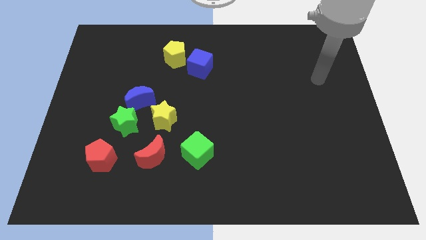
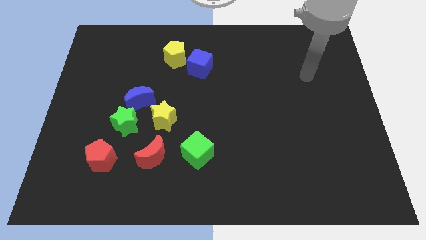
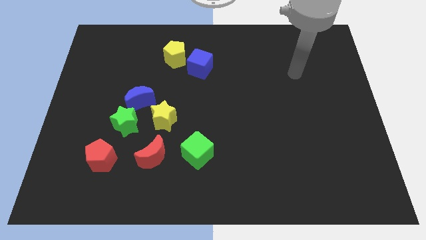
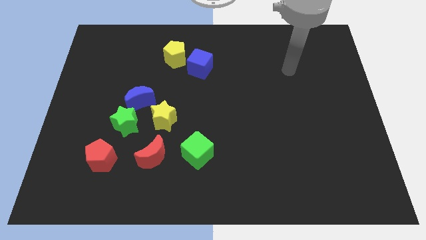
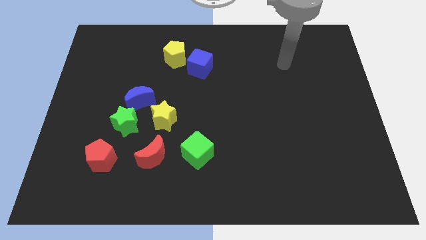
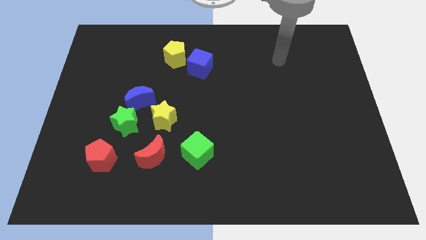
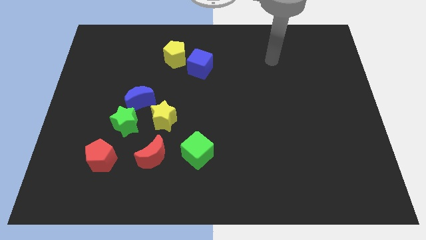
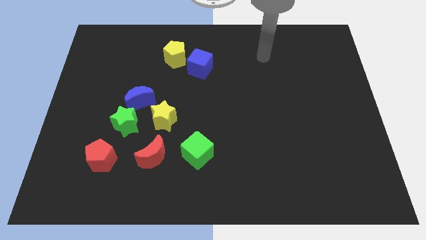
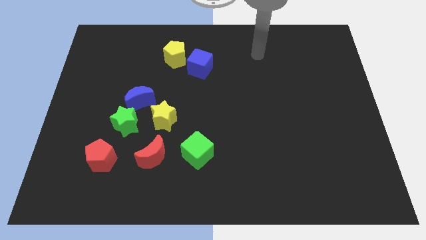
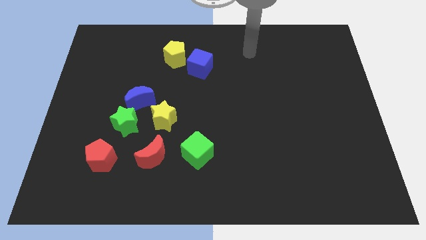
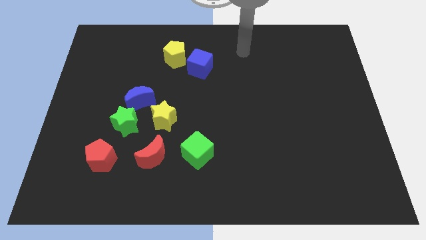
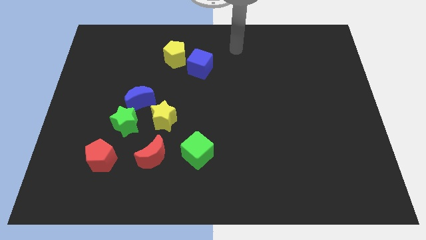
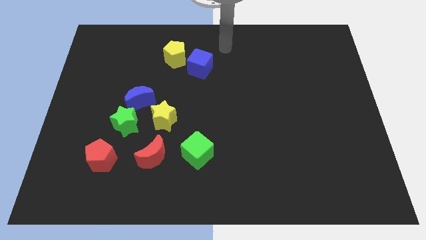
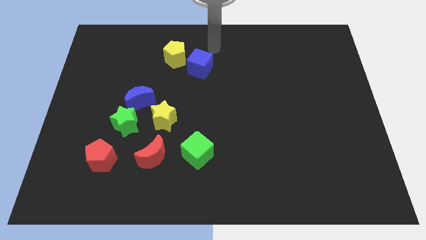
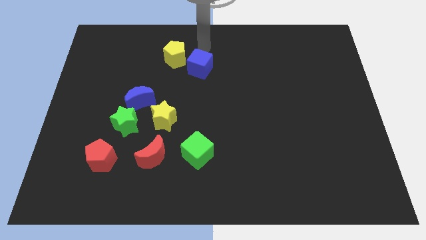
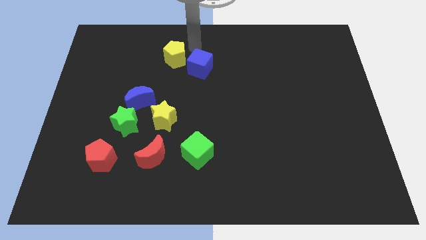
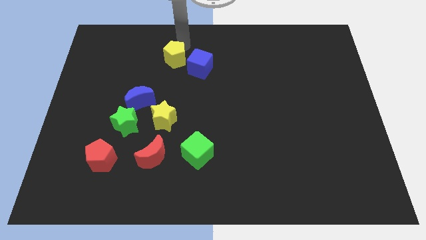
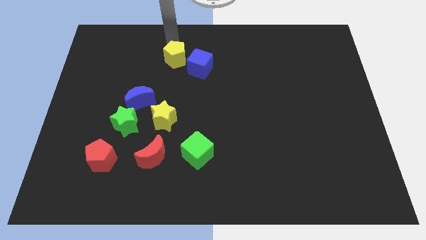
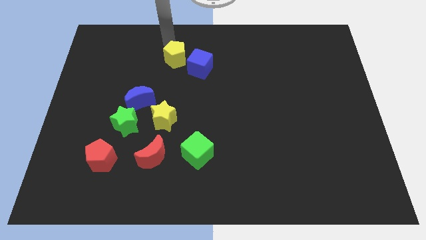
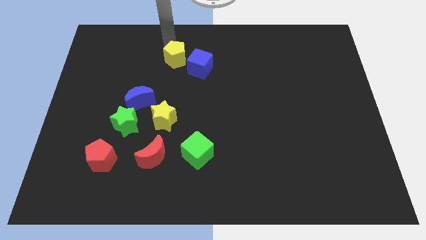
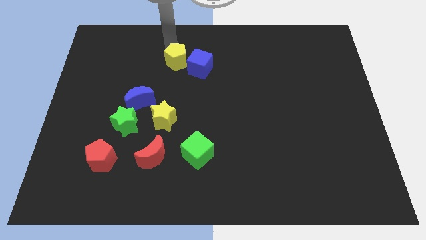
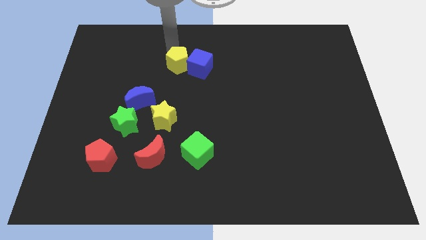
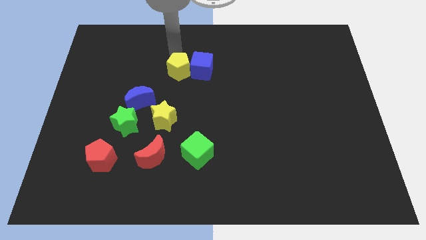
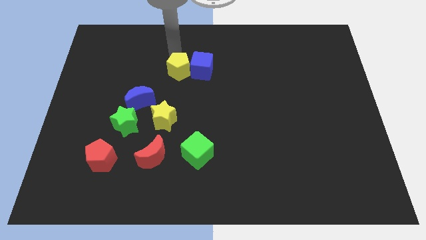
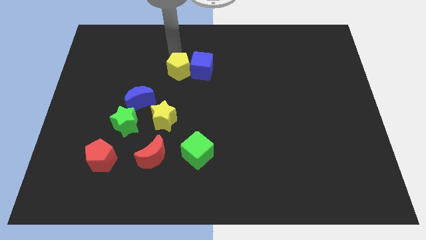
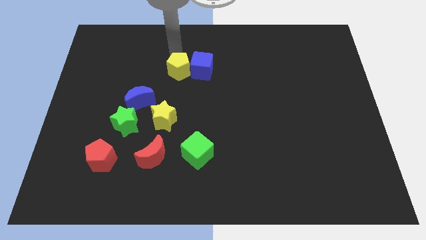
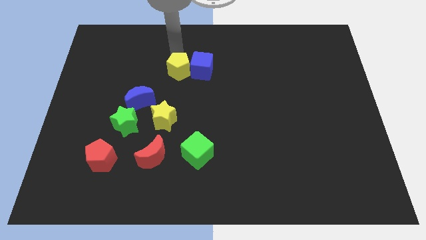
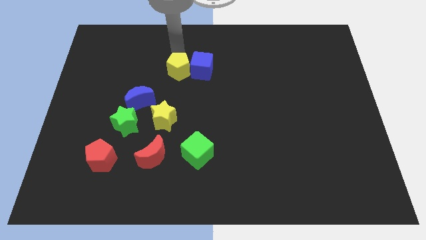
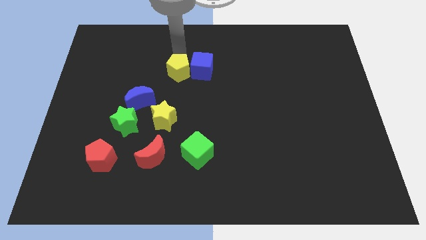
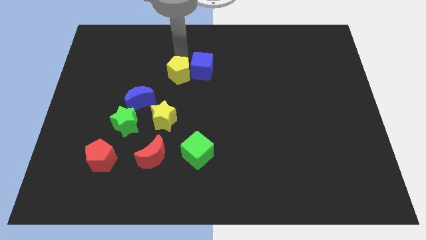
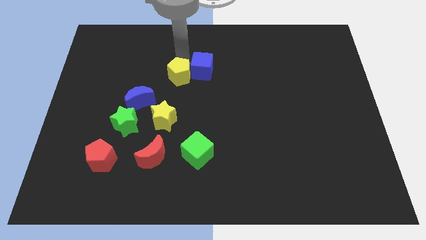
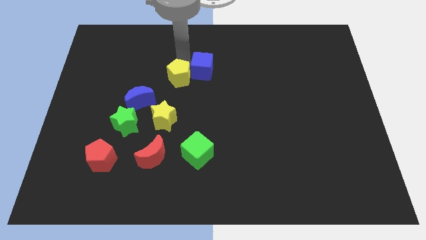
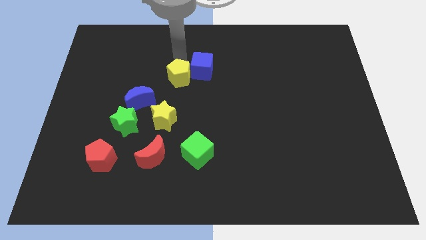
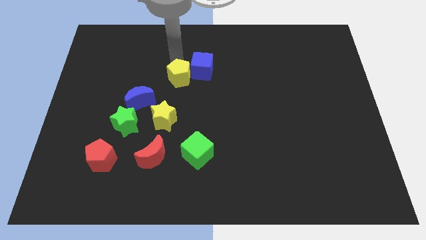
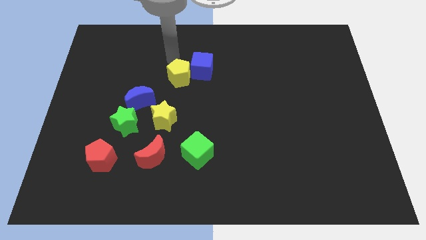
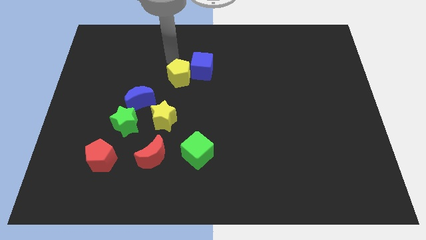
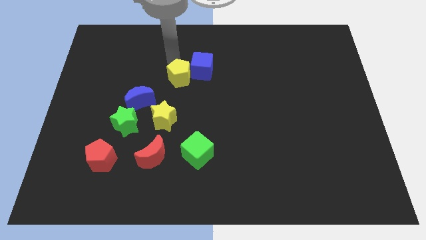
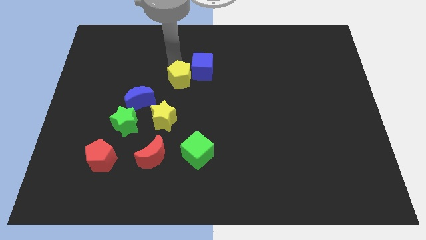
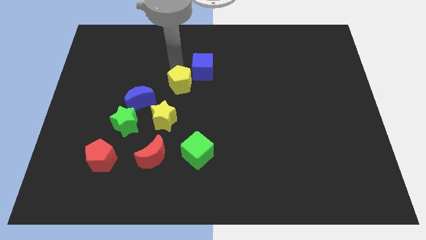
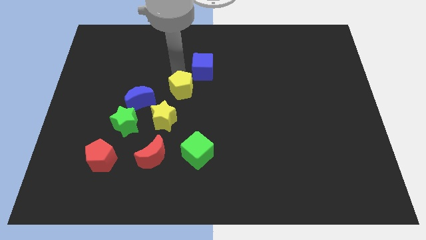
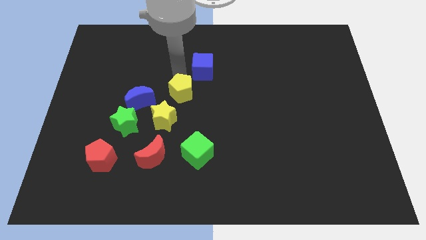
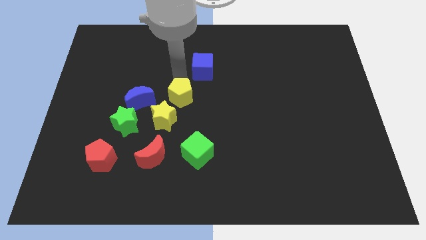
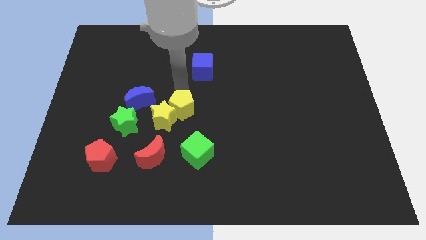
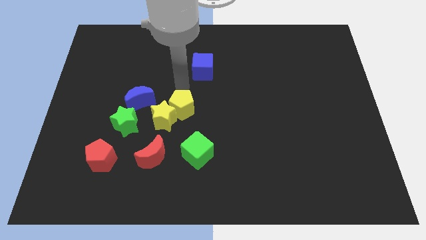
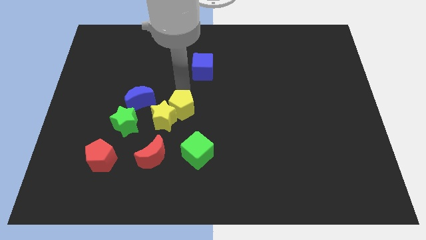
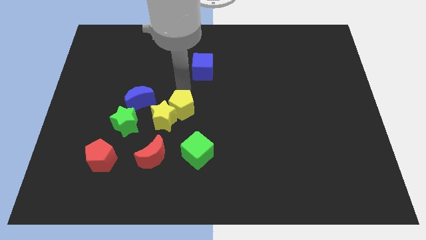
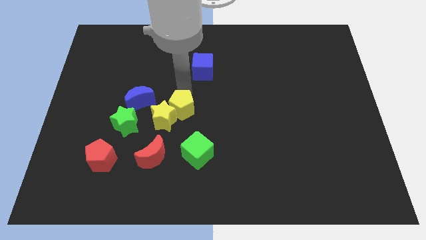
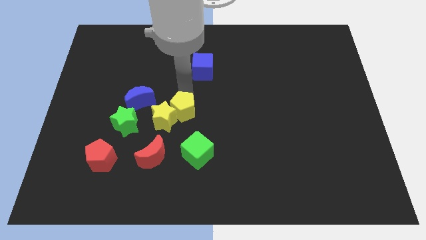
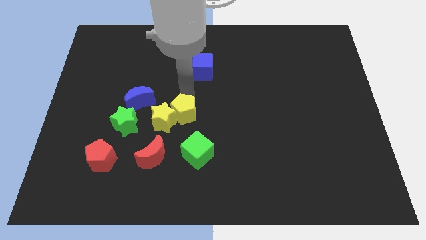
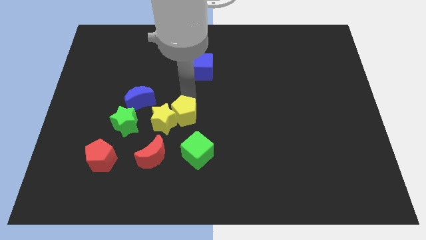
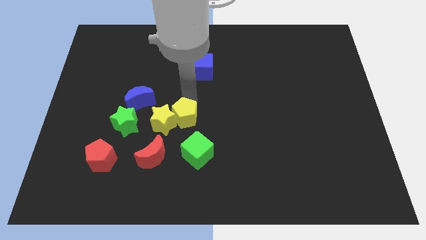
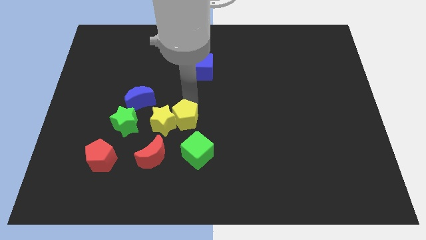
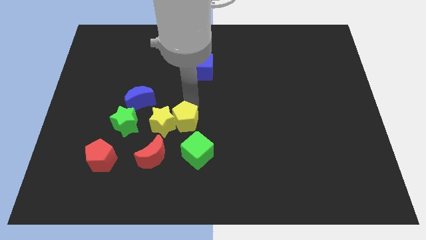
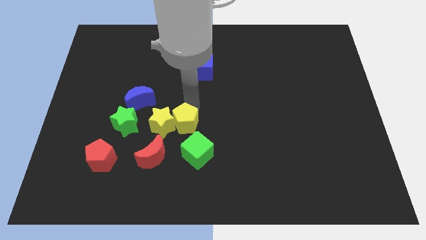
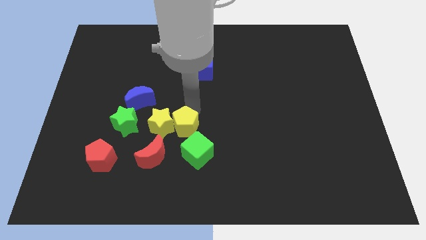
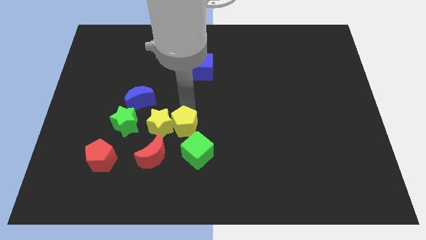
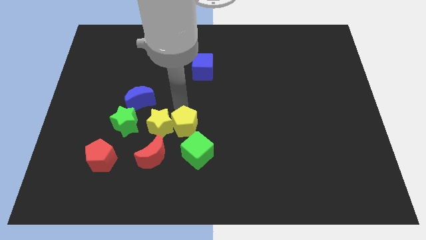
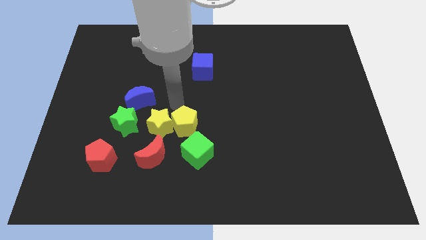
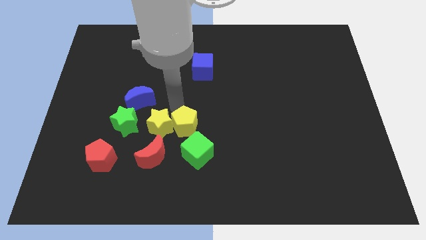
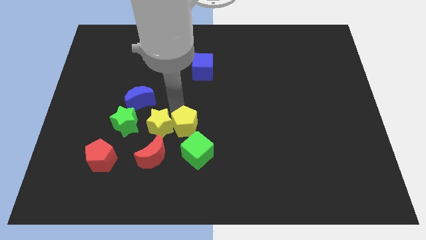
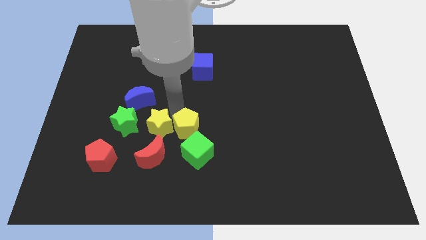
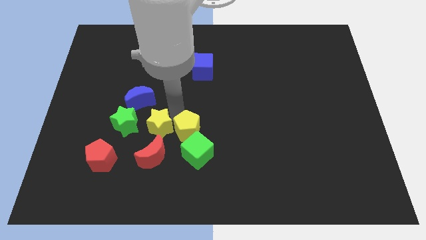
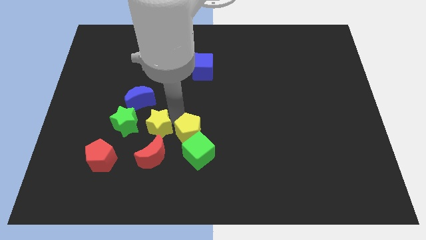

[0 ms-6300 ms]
put the yellow pentagon towards the green cube
